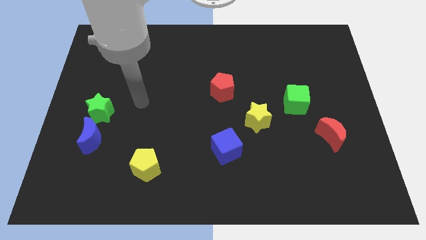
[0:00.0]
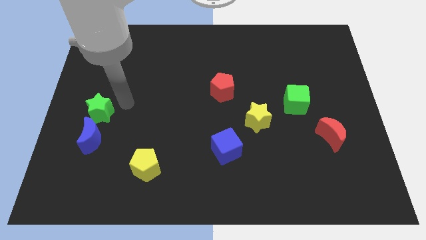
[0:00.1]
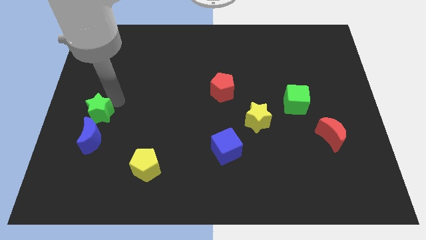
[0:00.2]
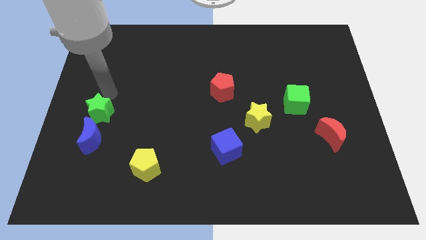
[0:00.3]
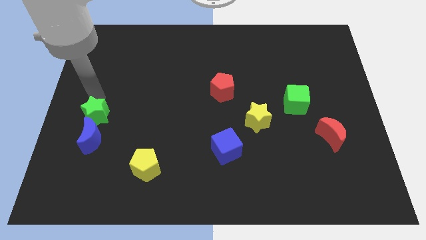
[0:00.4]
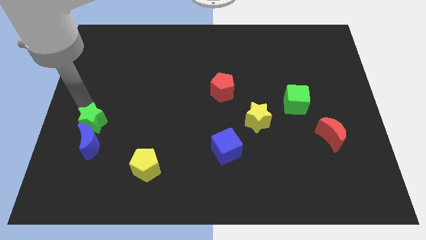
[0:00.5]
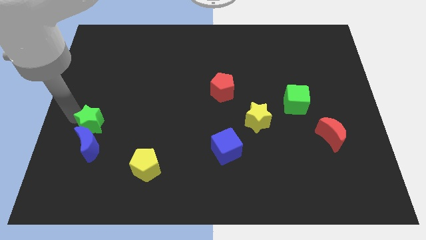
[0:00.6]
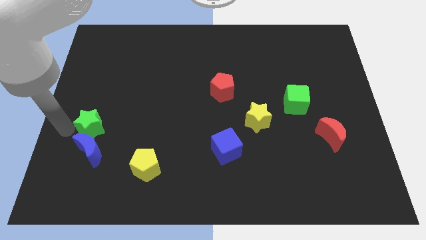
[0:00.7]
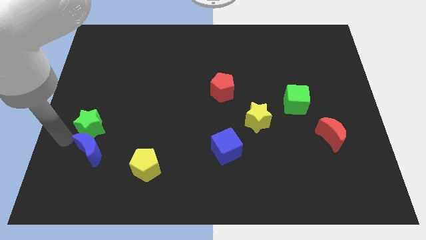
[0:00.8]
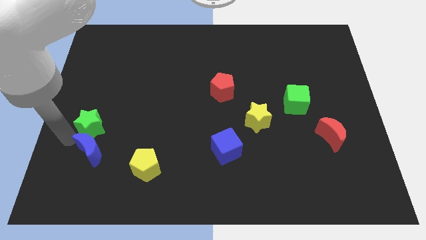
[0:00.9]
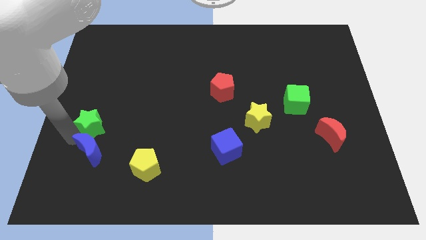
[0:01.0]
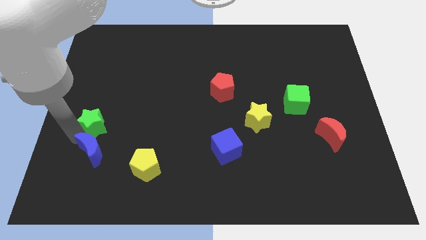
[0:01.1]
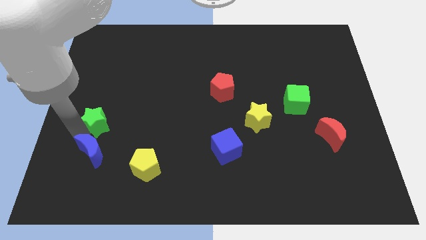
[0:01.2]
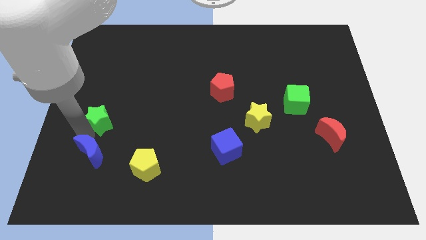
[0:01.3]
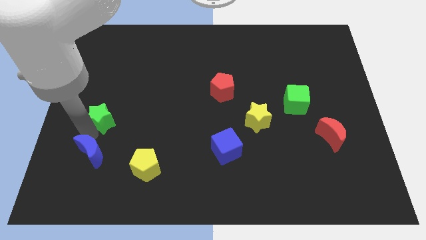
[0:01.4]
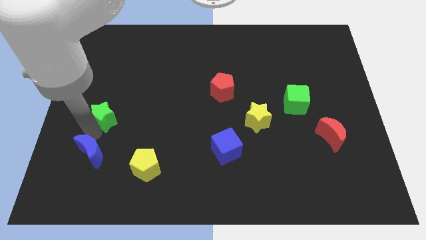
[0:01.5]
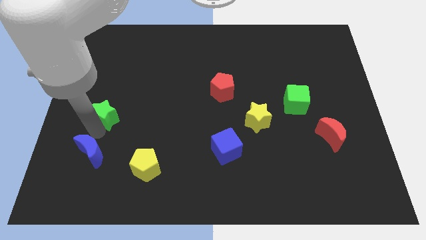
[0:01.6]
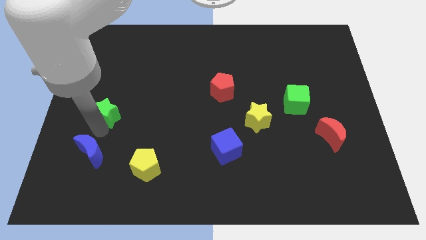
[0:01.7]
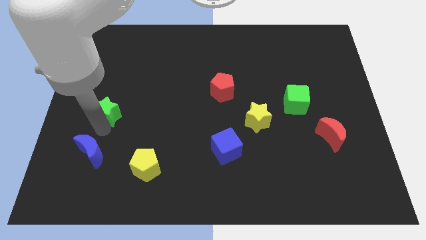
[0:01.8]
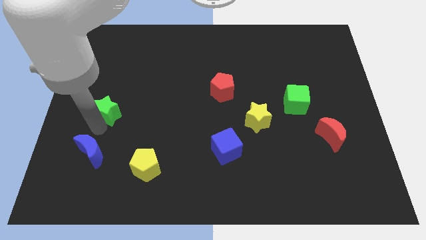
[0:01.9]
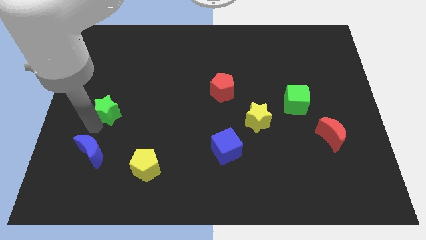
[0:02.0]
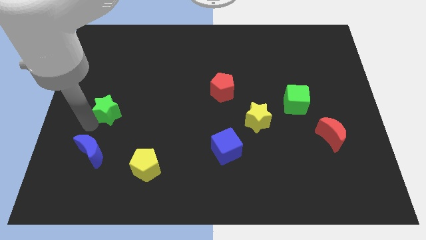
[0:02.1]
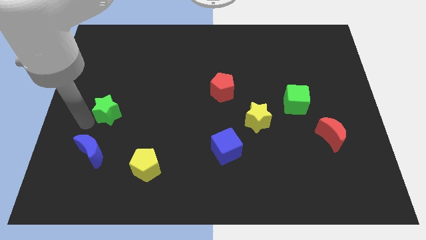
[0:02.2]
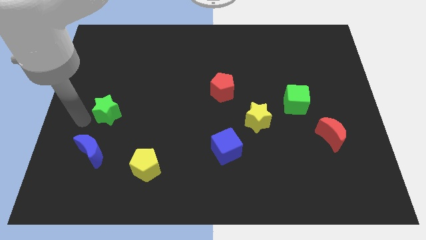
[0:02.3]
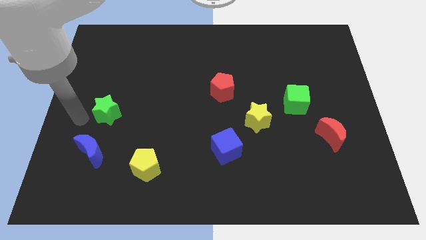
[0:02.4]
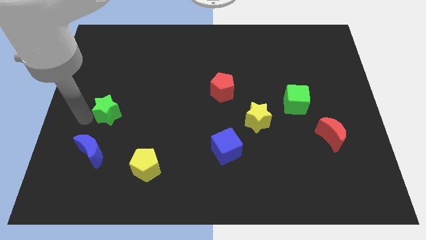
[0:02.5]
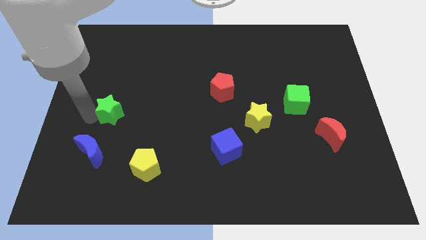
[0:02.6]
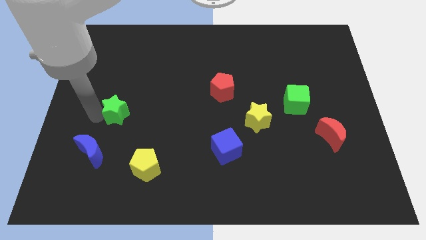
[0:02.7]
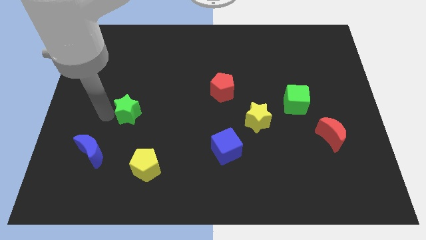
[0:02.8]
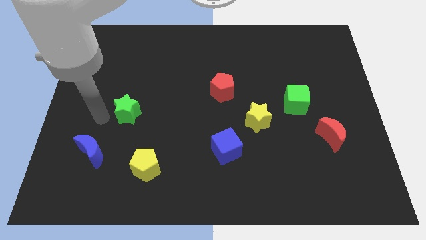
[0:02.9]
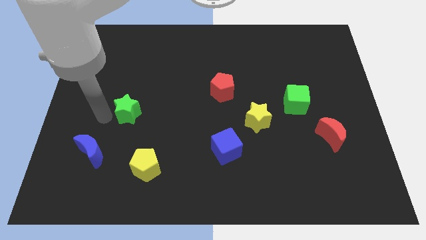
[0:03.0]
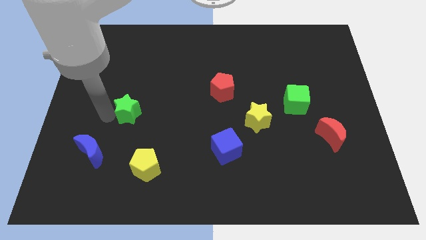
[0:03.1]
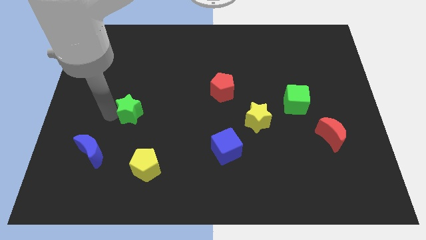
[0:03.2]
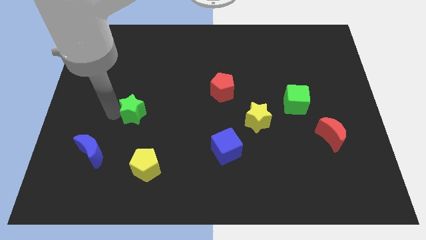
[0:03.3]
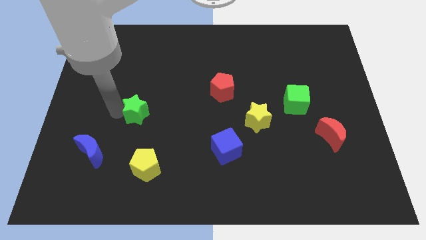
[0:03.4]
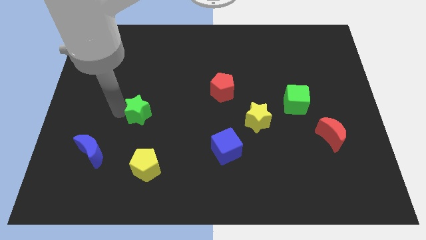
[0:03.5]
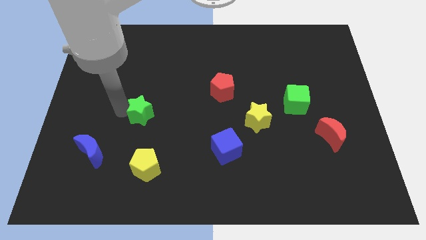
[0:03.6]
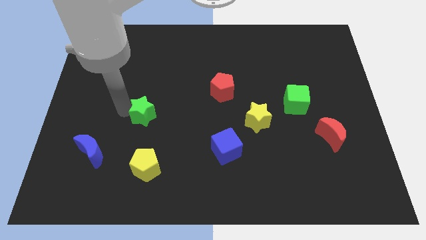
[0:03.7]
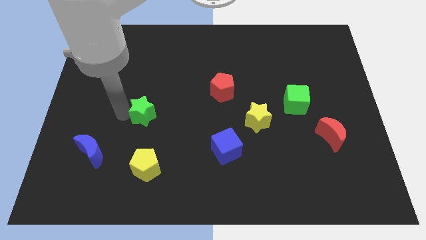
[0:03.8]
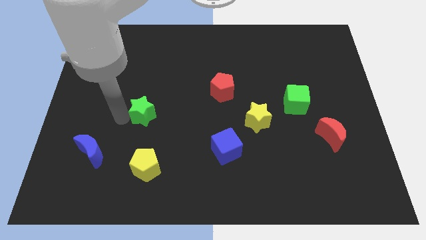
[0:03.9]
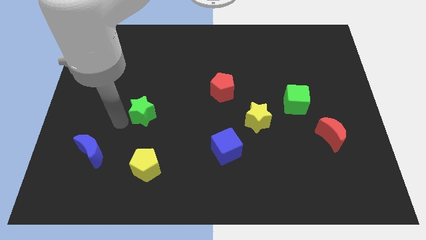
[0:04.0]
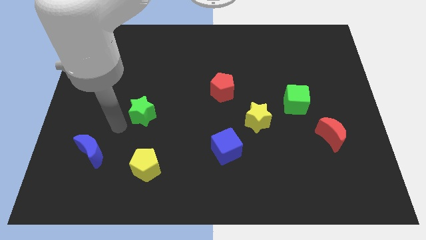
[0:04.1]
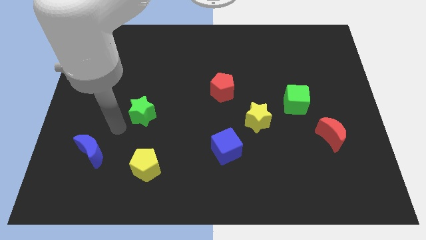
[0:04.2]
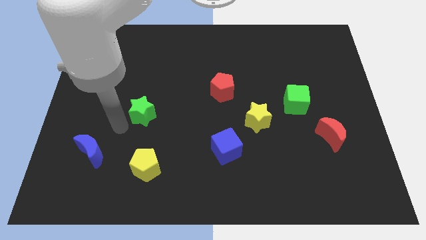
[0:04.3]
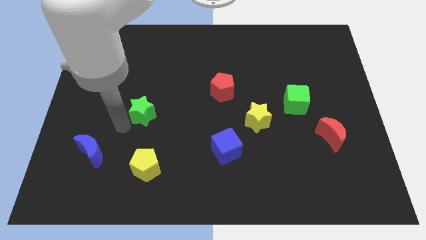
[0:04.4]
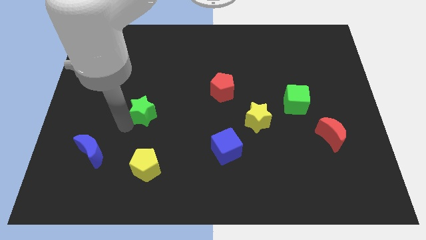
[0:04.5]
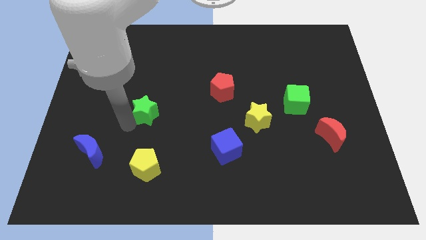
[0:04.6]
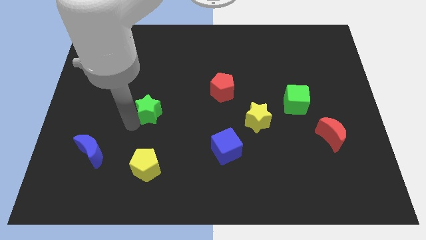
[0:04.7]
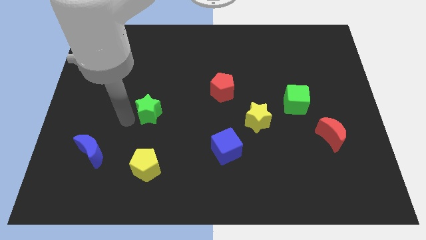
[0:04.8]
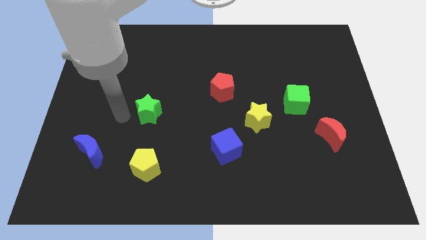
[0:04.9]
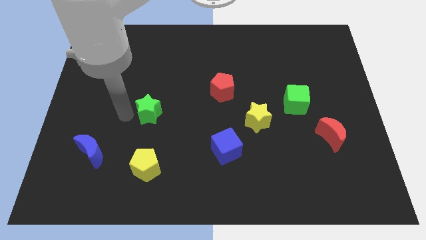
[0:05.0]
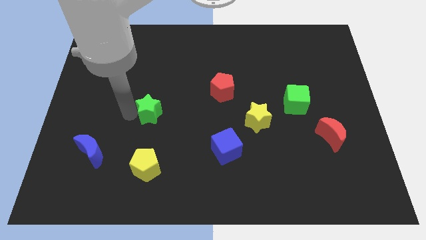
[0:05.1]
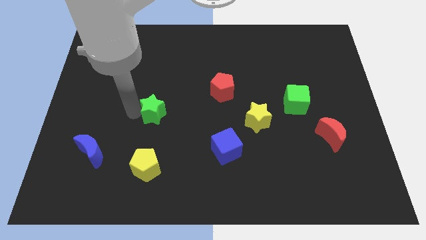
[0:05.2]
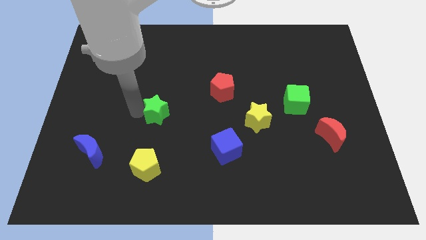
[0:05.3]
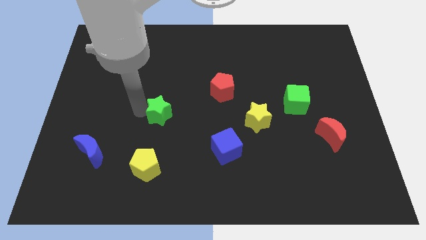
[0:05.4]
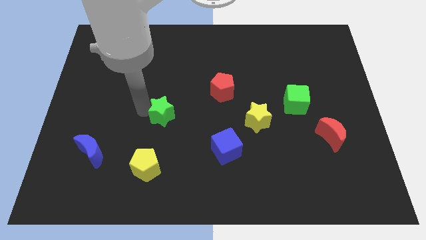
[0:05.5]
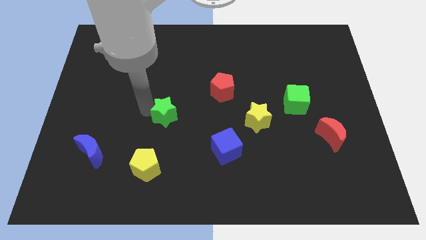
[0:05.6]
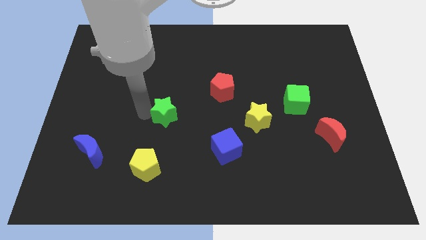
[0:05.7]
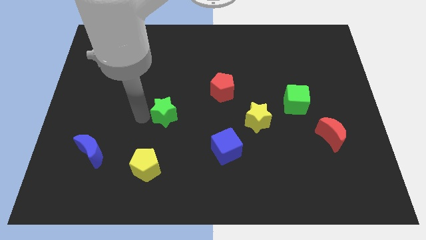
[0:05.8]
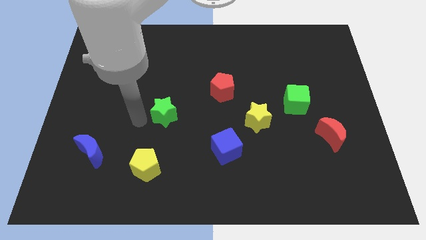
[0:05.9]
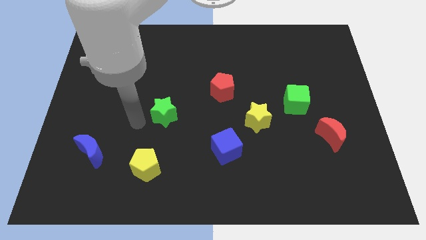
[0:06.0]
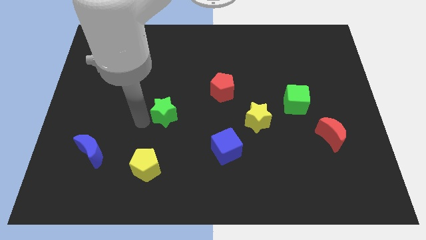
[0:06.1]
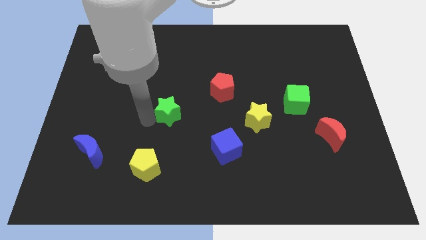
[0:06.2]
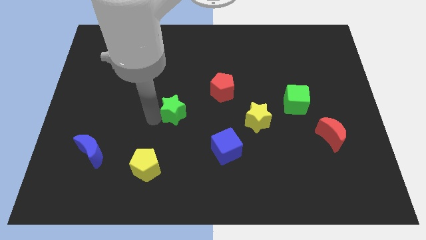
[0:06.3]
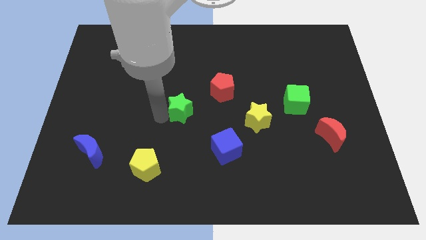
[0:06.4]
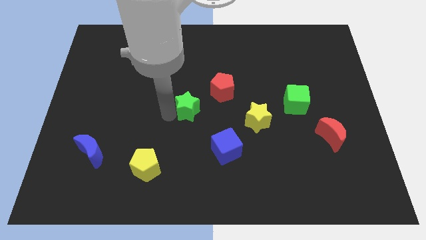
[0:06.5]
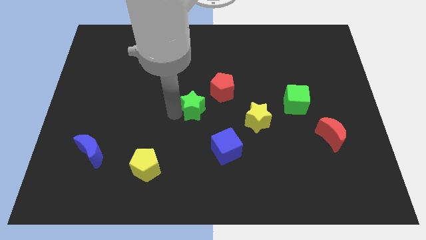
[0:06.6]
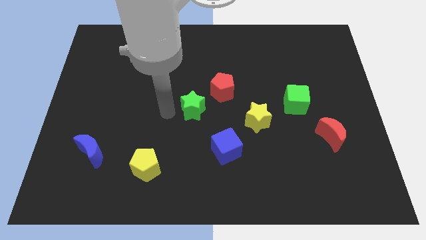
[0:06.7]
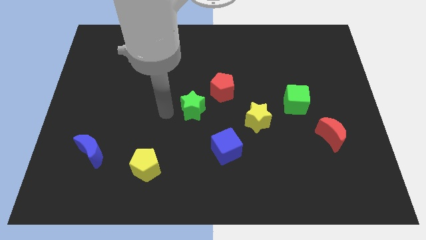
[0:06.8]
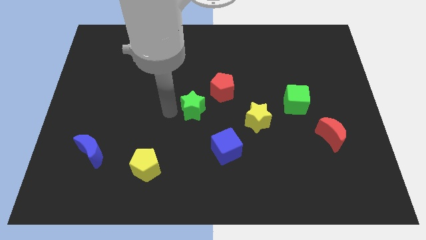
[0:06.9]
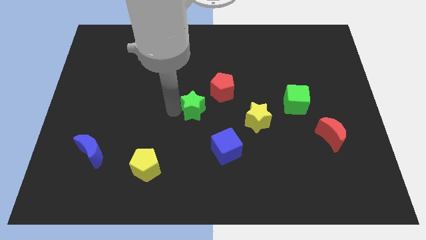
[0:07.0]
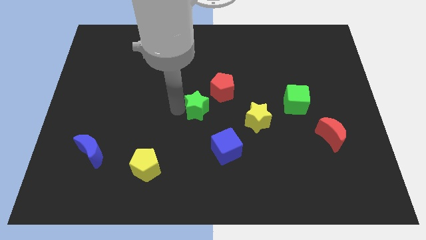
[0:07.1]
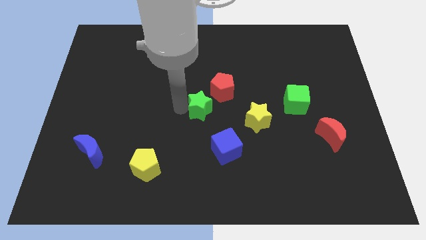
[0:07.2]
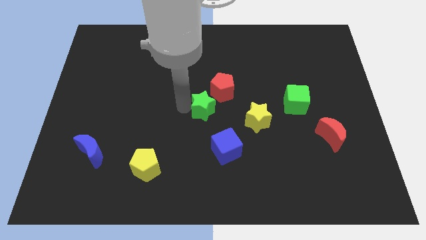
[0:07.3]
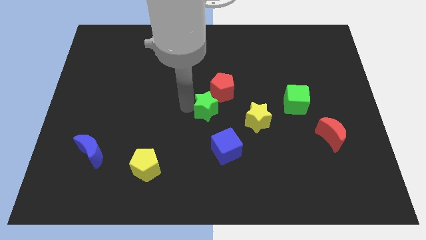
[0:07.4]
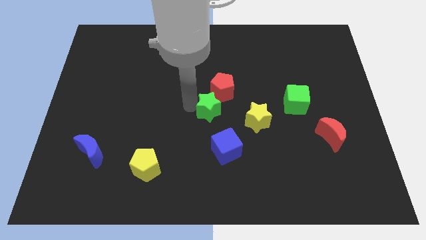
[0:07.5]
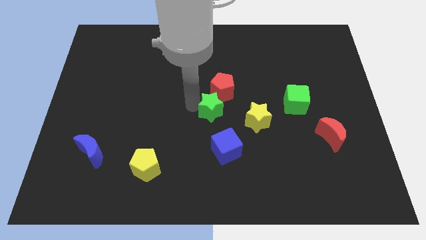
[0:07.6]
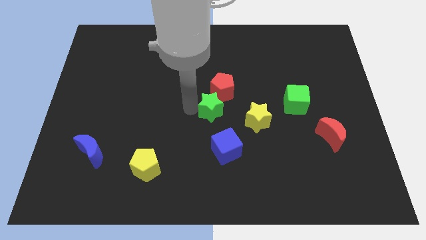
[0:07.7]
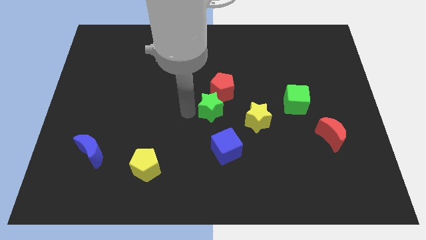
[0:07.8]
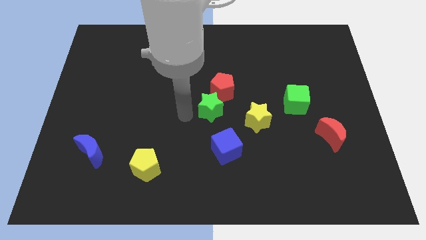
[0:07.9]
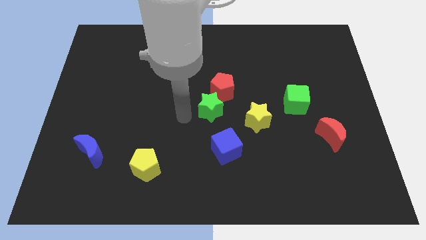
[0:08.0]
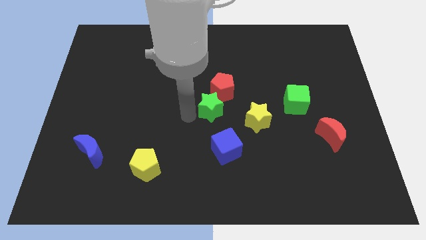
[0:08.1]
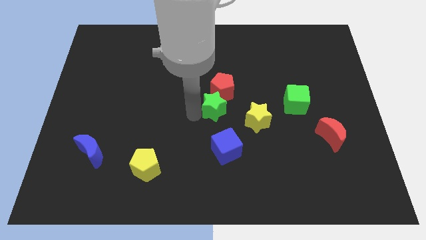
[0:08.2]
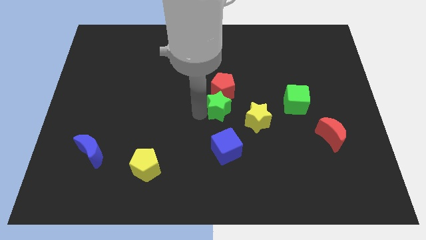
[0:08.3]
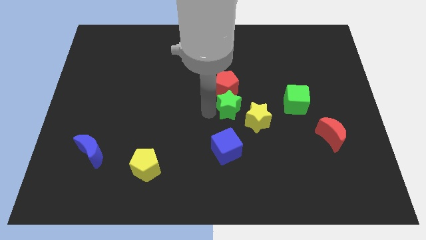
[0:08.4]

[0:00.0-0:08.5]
put the green star to the left of the green cube

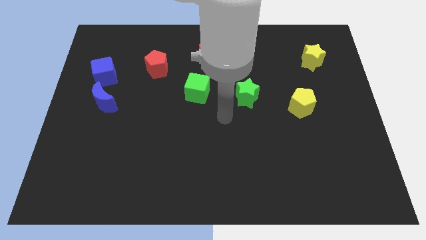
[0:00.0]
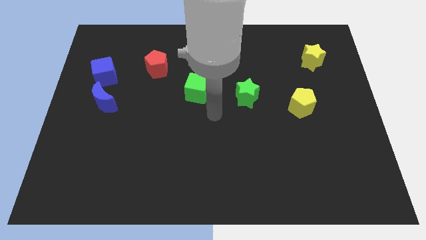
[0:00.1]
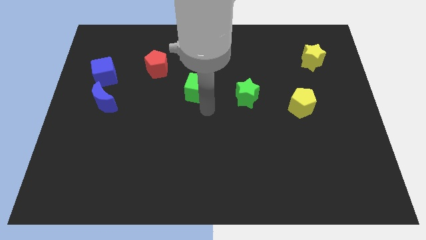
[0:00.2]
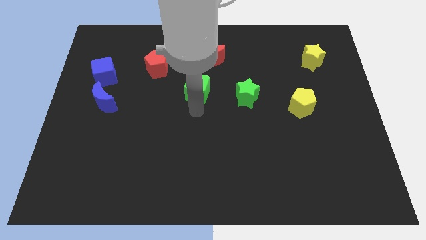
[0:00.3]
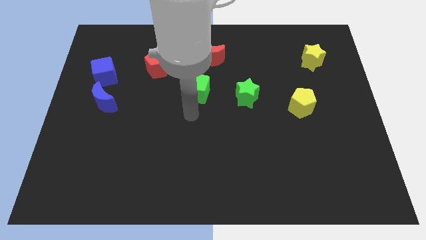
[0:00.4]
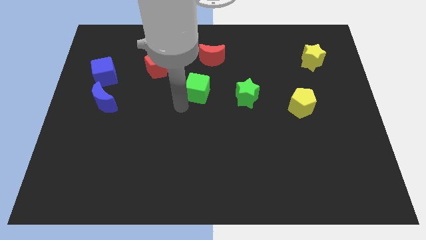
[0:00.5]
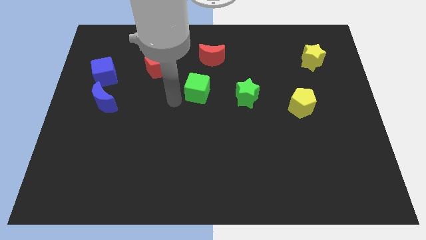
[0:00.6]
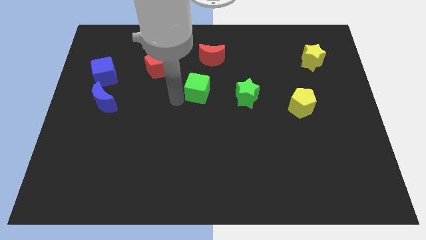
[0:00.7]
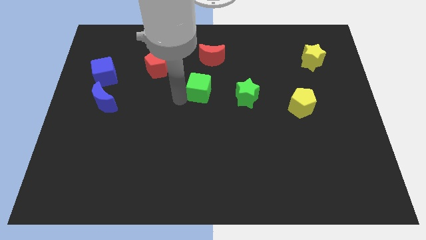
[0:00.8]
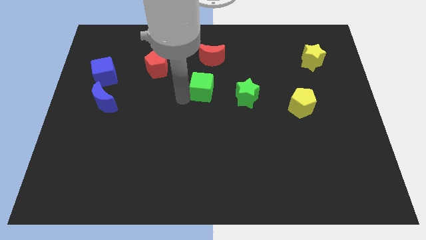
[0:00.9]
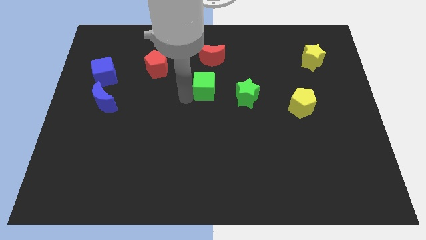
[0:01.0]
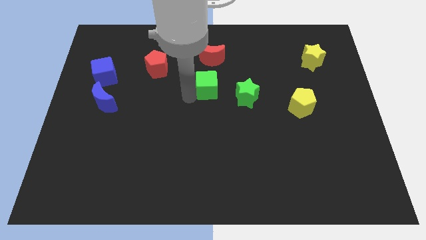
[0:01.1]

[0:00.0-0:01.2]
slide the green cube to the top left side of the green star
